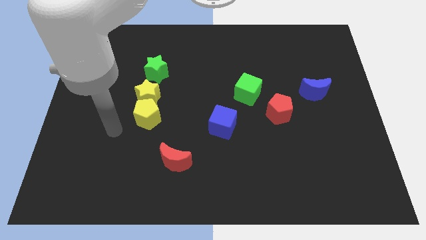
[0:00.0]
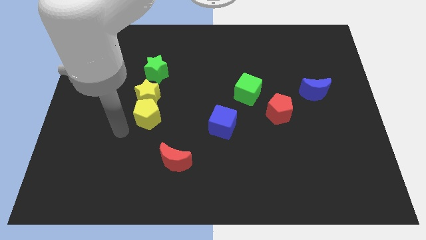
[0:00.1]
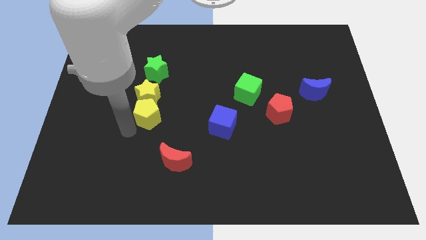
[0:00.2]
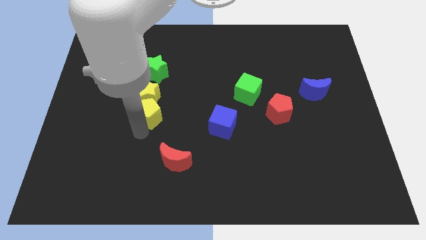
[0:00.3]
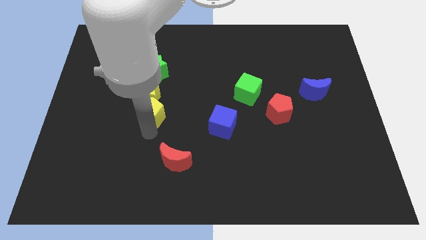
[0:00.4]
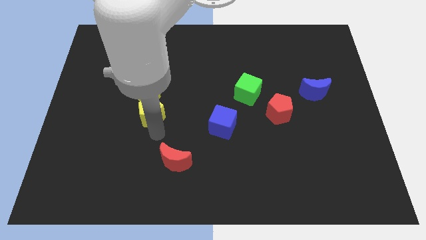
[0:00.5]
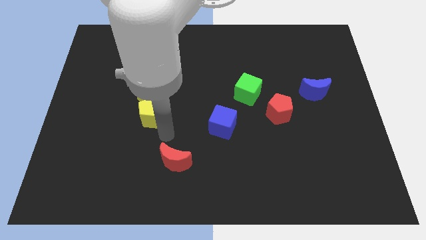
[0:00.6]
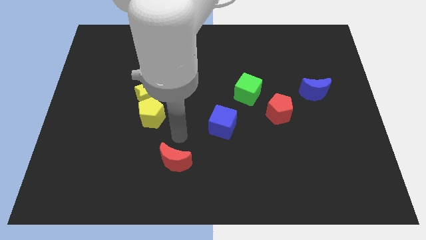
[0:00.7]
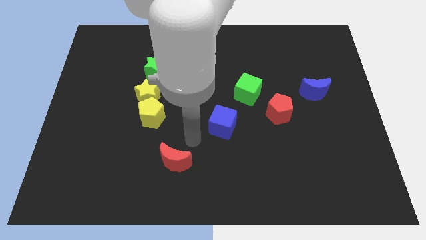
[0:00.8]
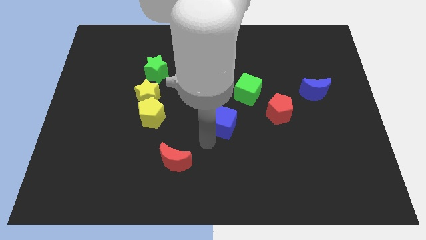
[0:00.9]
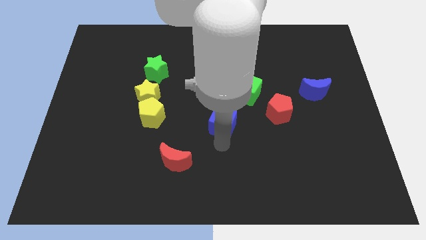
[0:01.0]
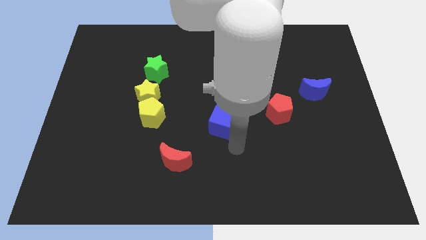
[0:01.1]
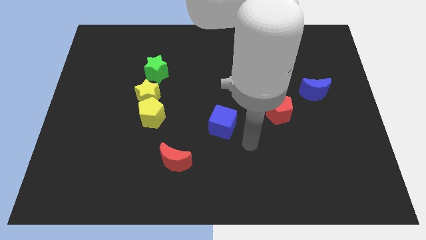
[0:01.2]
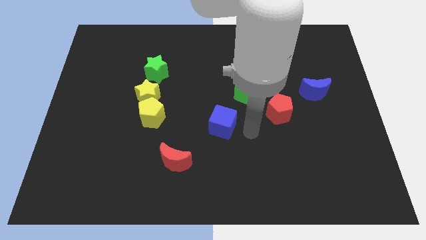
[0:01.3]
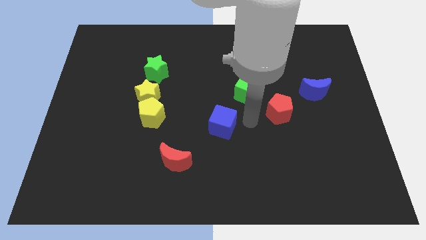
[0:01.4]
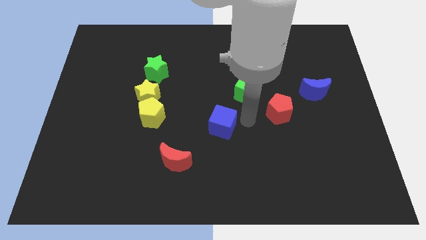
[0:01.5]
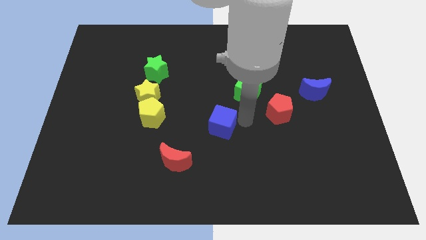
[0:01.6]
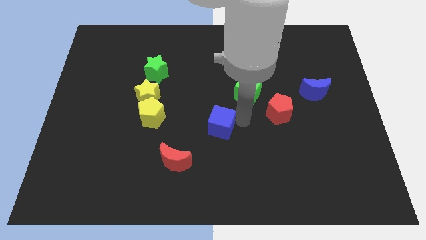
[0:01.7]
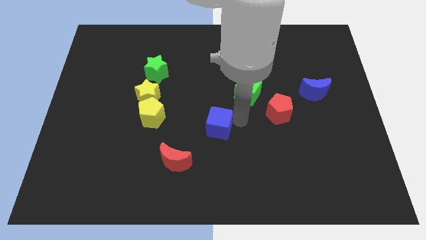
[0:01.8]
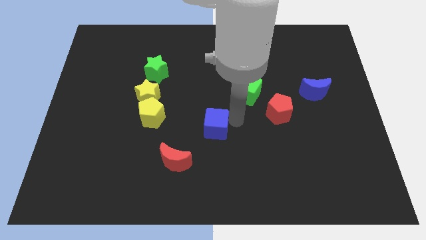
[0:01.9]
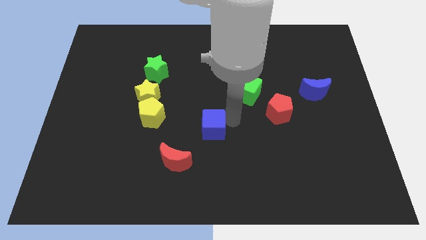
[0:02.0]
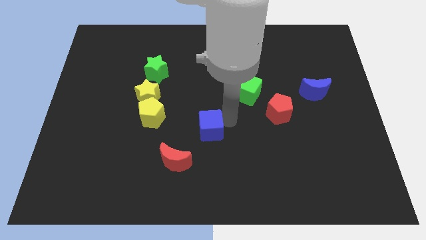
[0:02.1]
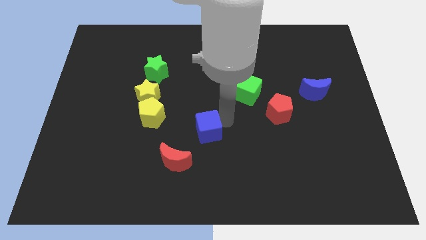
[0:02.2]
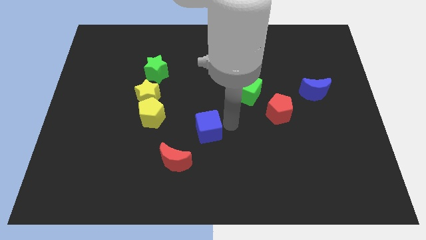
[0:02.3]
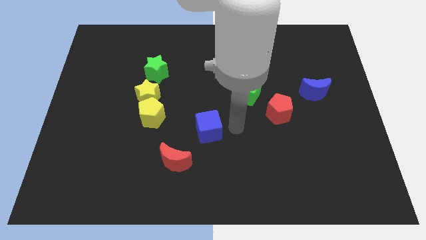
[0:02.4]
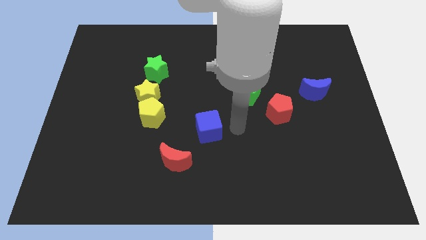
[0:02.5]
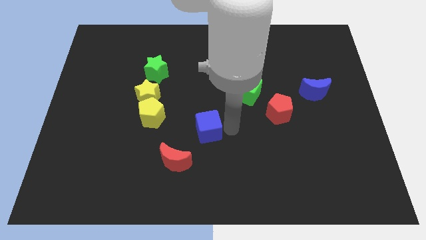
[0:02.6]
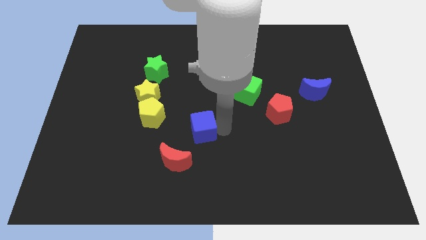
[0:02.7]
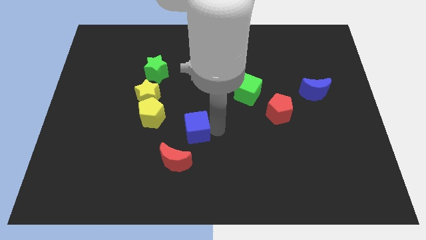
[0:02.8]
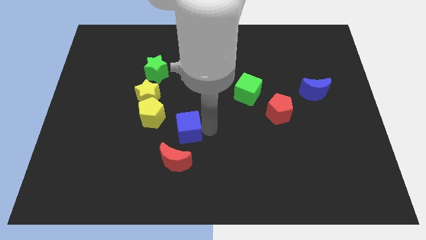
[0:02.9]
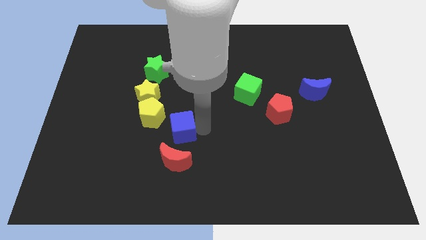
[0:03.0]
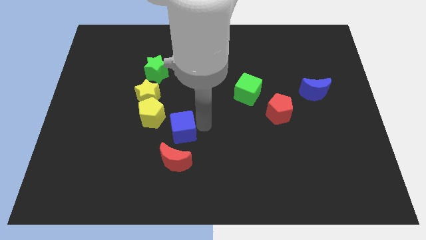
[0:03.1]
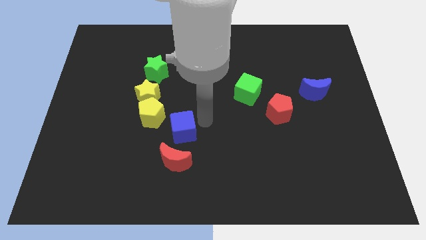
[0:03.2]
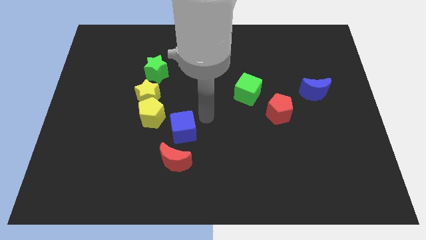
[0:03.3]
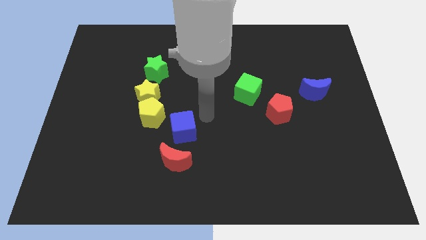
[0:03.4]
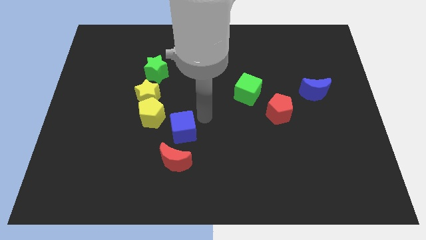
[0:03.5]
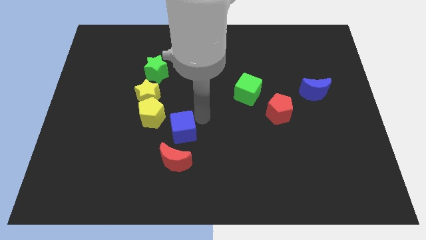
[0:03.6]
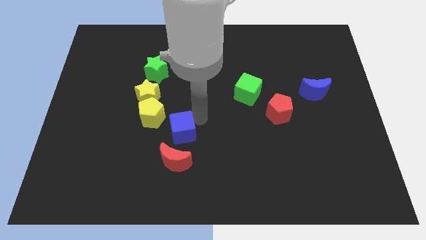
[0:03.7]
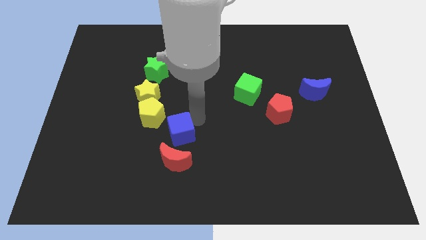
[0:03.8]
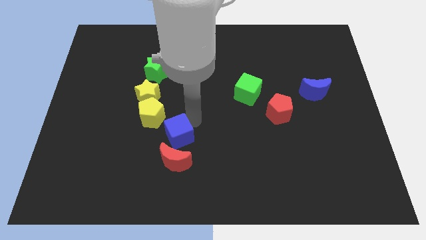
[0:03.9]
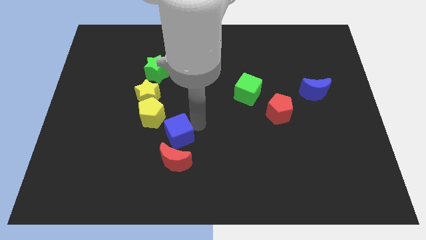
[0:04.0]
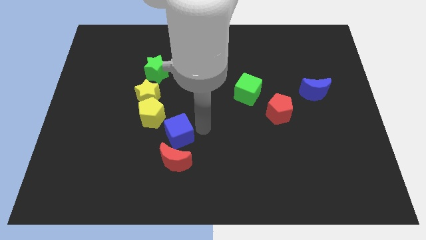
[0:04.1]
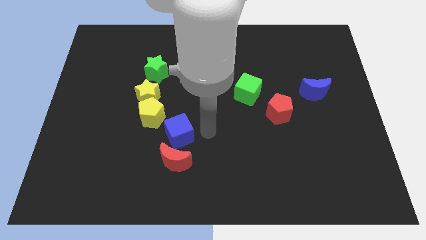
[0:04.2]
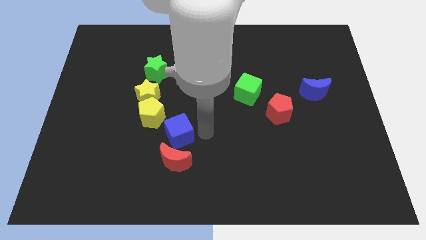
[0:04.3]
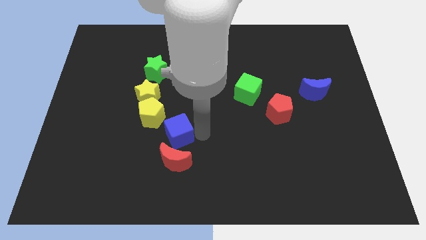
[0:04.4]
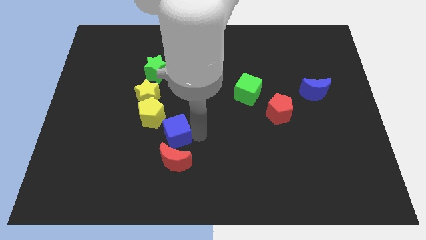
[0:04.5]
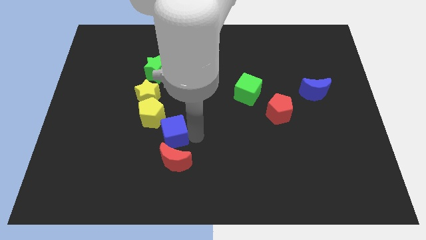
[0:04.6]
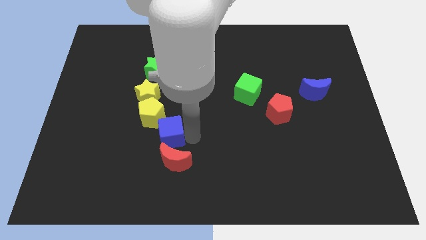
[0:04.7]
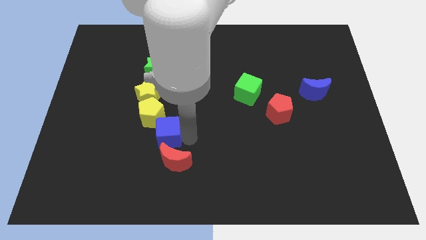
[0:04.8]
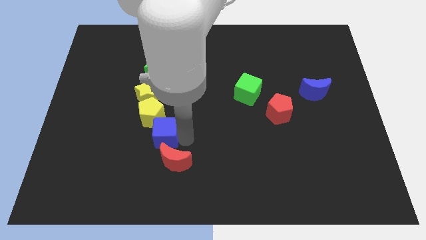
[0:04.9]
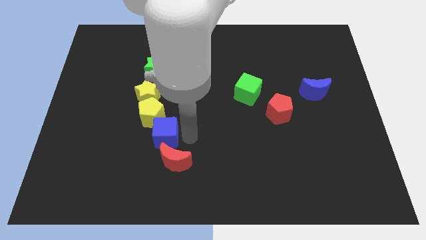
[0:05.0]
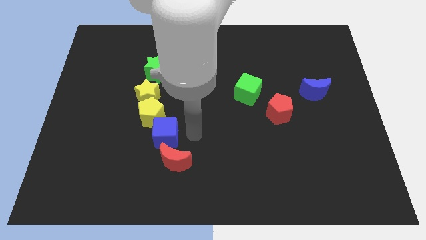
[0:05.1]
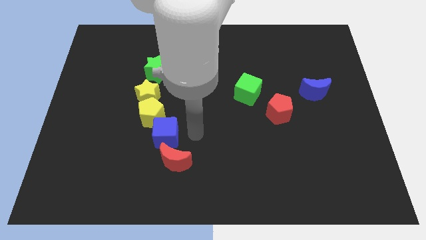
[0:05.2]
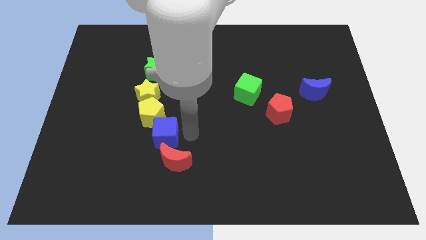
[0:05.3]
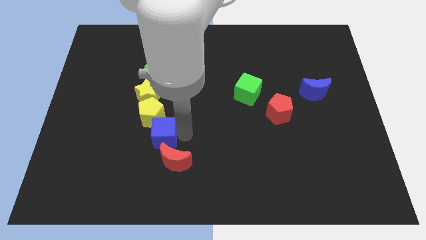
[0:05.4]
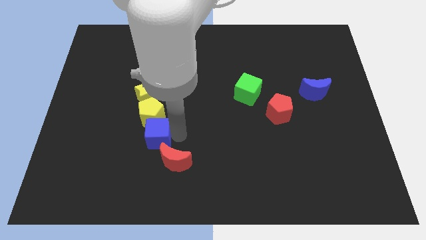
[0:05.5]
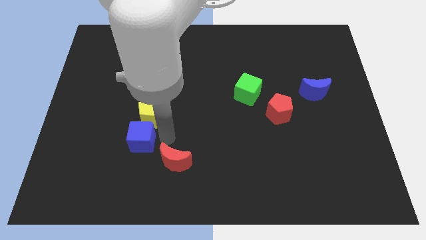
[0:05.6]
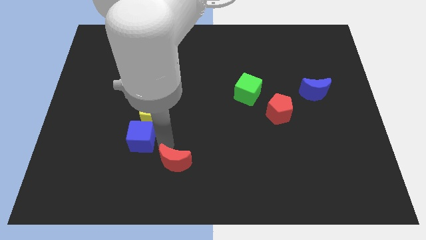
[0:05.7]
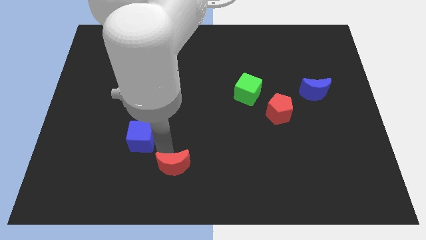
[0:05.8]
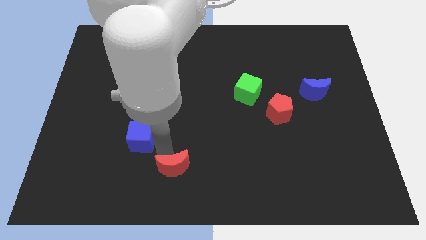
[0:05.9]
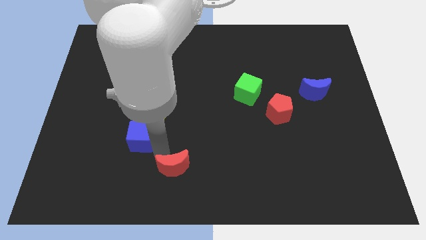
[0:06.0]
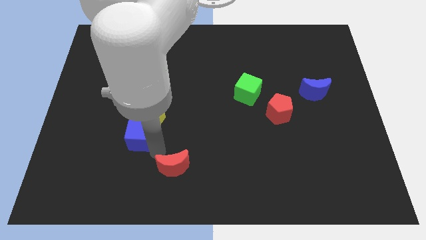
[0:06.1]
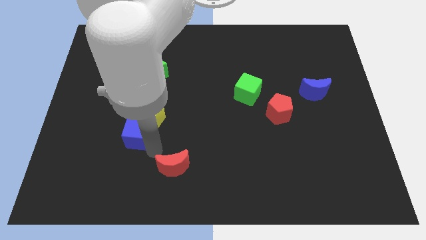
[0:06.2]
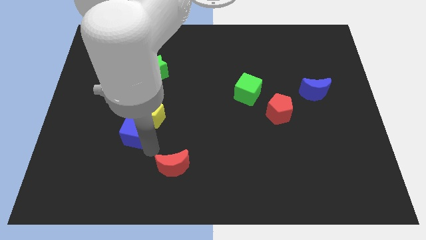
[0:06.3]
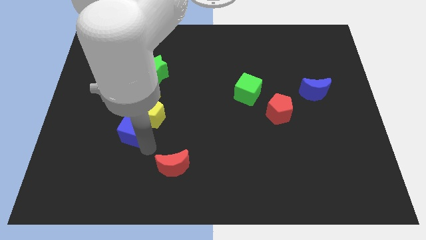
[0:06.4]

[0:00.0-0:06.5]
push the blue cube to the left side of the yellow pentagon

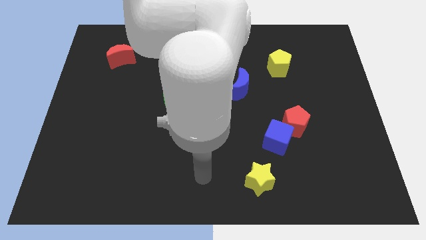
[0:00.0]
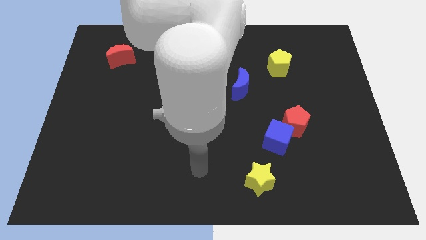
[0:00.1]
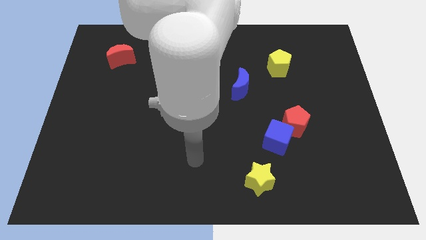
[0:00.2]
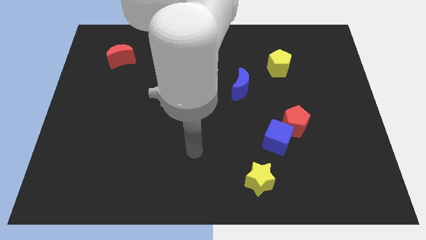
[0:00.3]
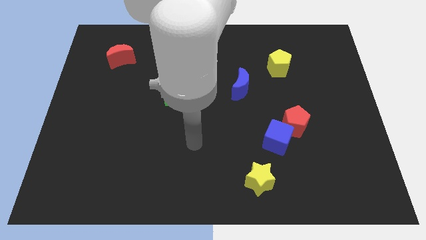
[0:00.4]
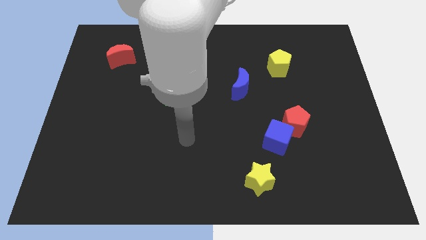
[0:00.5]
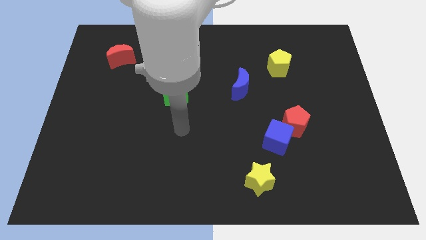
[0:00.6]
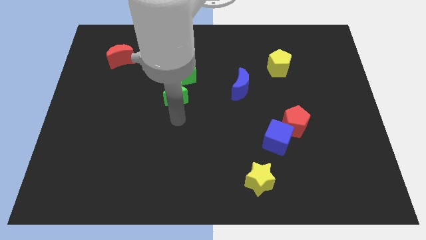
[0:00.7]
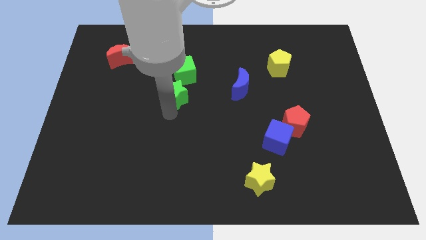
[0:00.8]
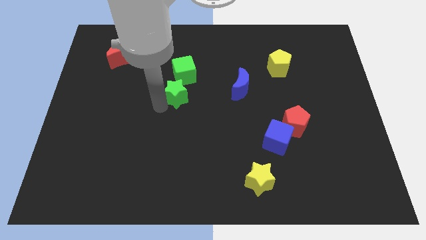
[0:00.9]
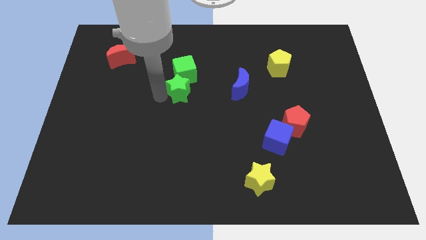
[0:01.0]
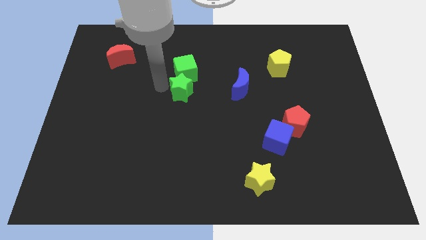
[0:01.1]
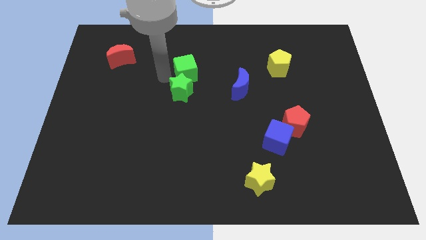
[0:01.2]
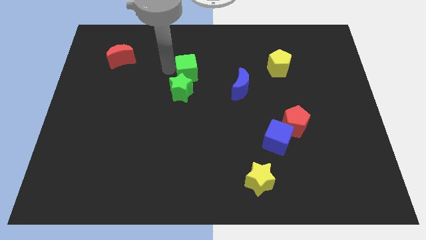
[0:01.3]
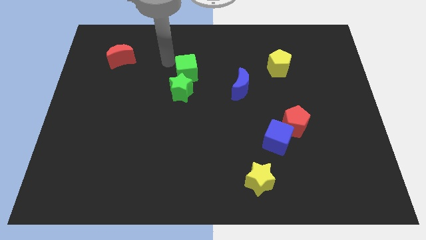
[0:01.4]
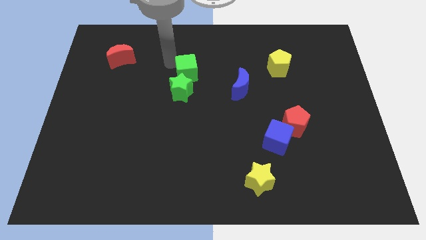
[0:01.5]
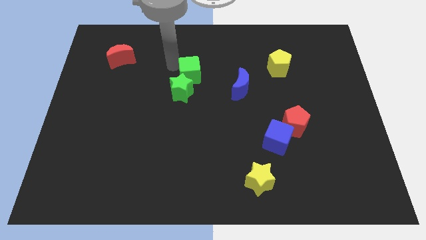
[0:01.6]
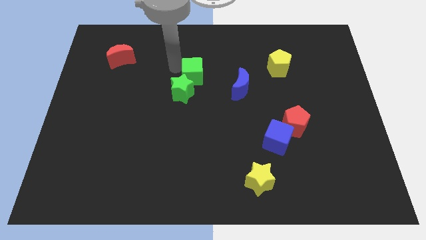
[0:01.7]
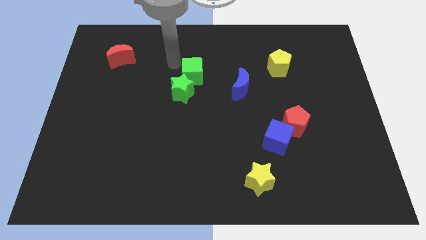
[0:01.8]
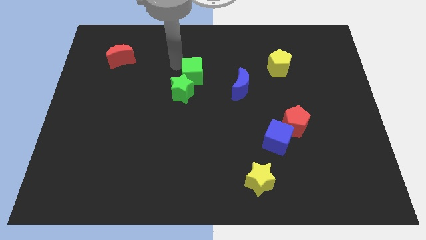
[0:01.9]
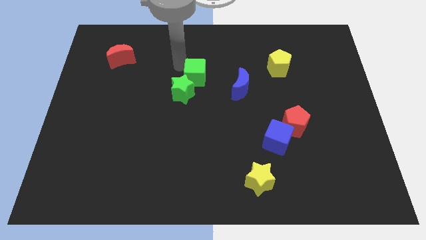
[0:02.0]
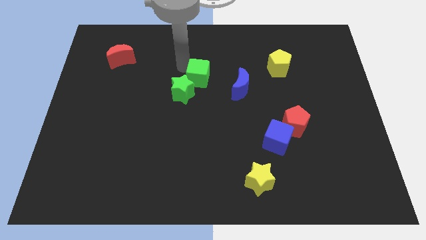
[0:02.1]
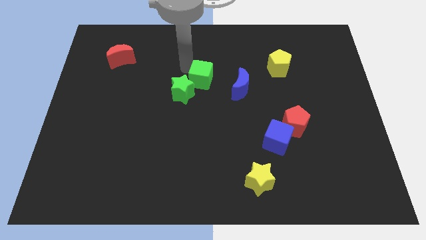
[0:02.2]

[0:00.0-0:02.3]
move the green cube to the right side of the green star
